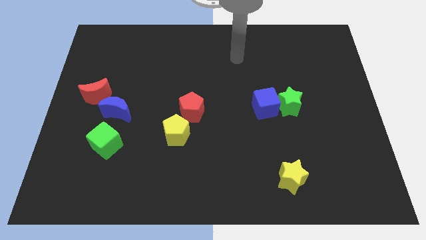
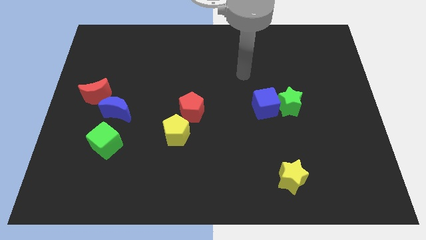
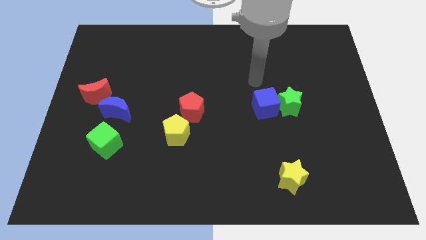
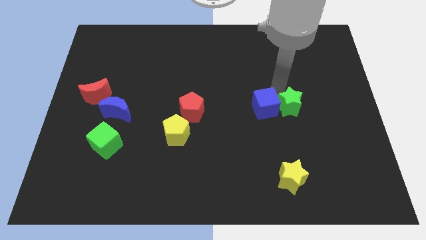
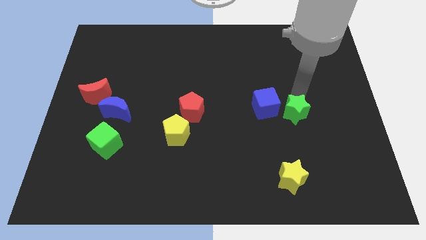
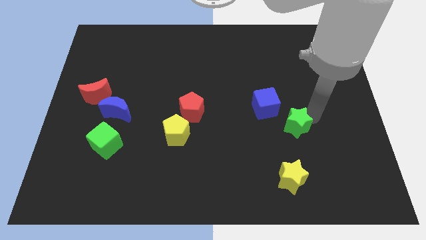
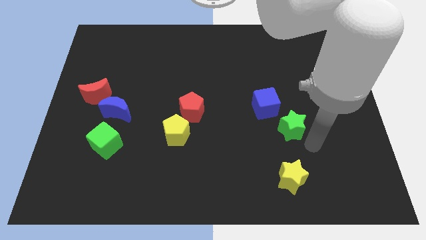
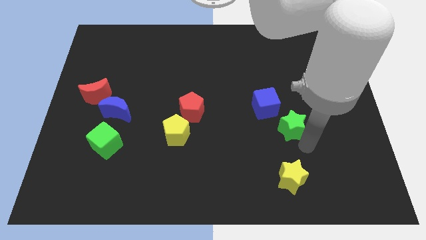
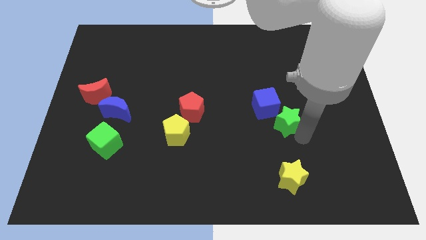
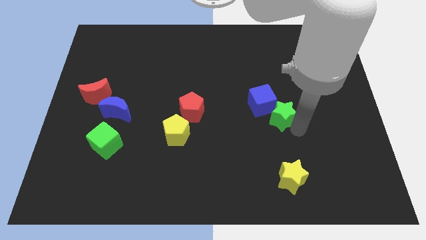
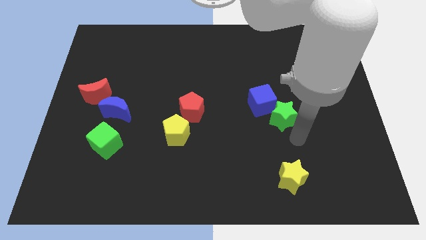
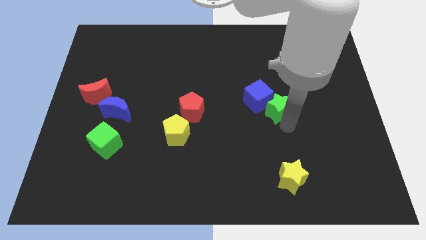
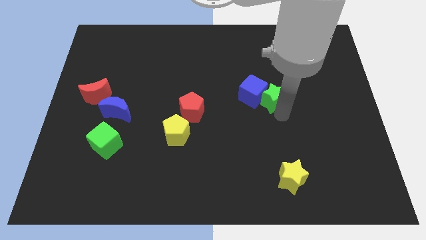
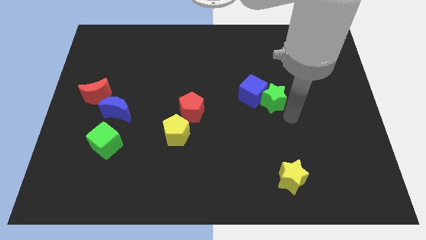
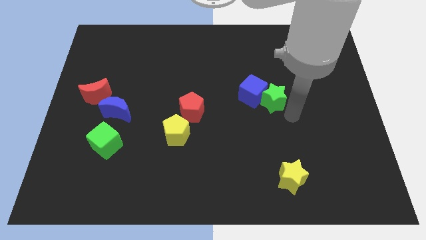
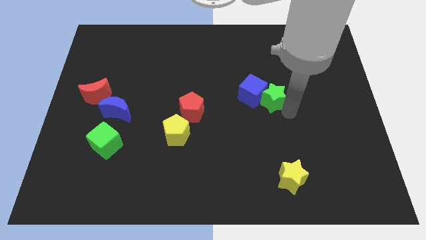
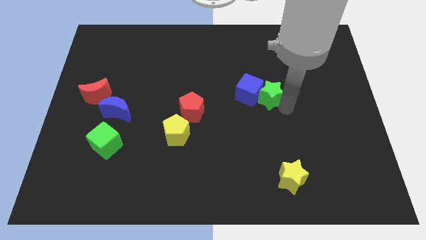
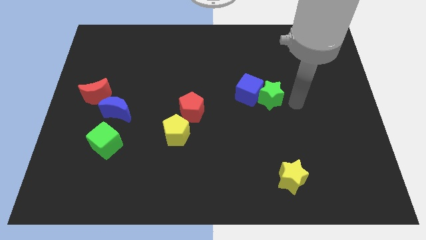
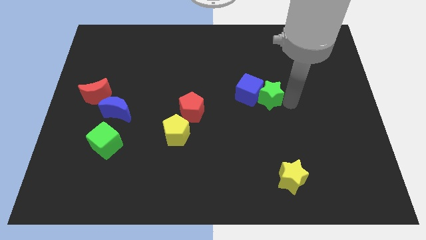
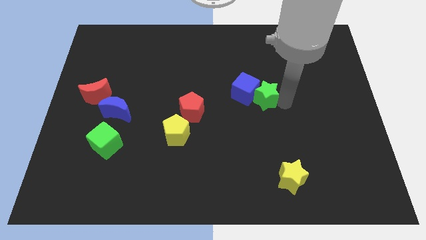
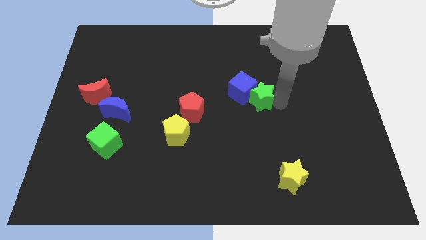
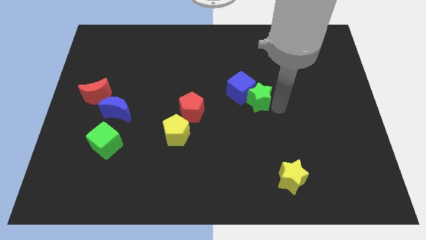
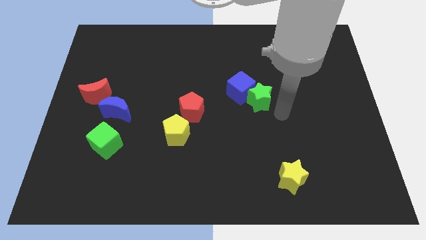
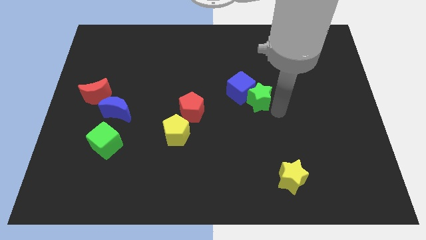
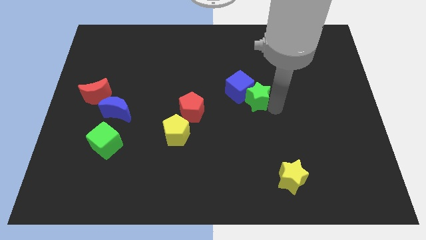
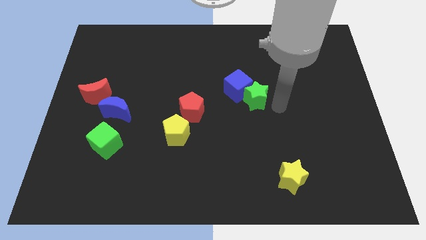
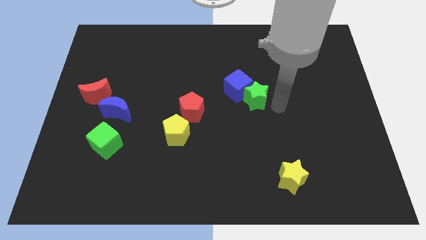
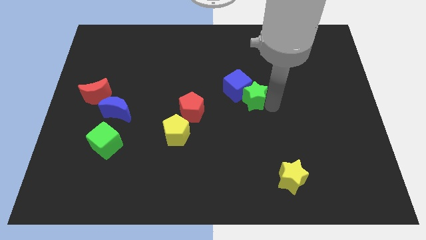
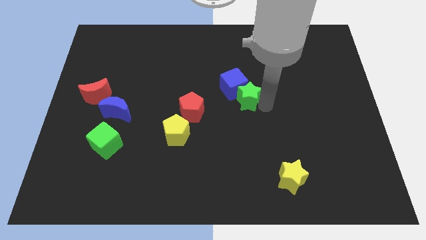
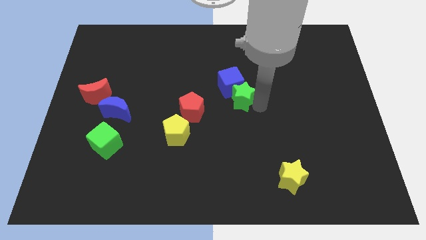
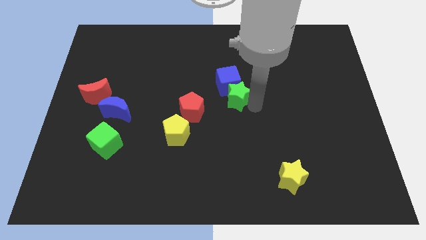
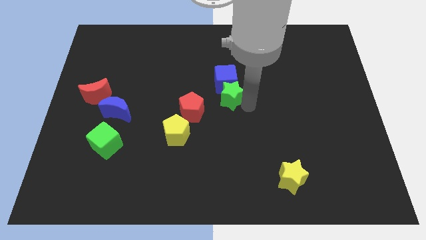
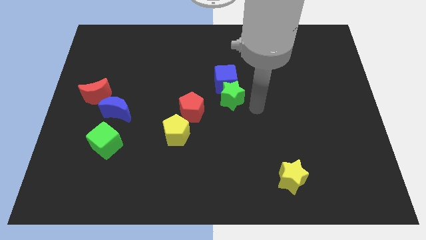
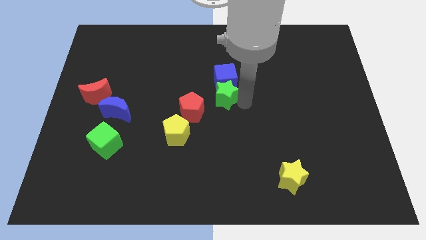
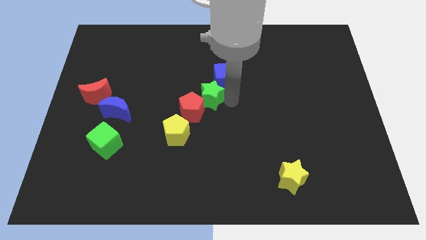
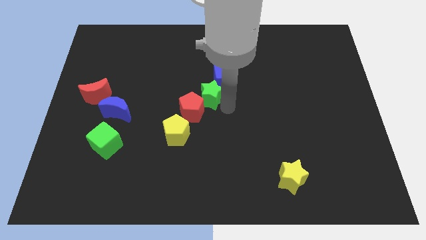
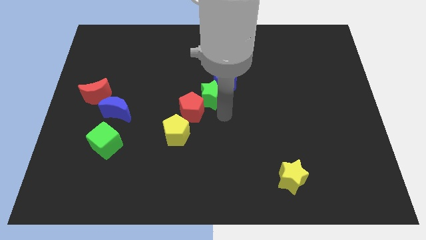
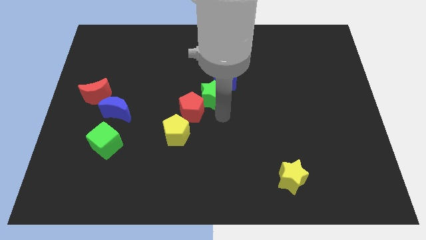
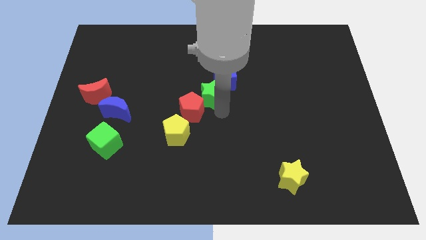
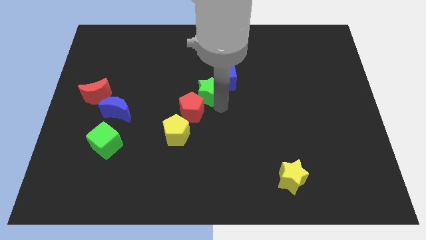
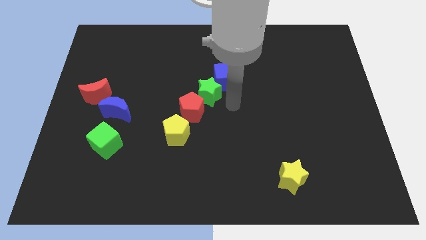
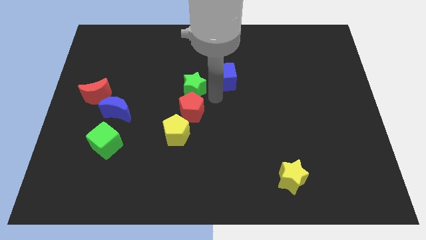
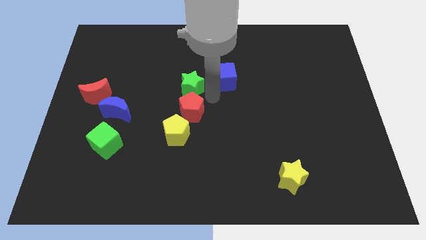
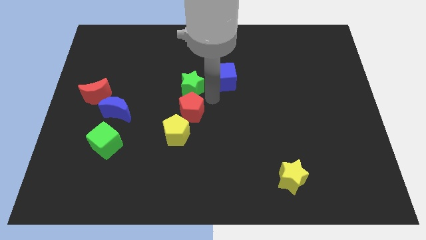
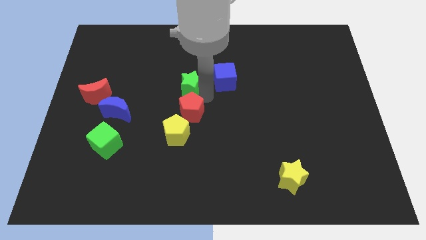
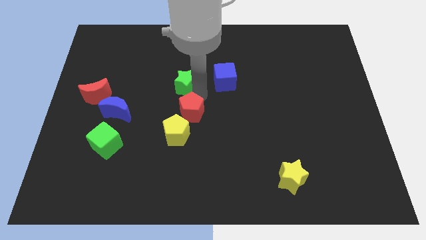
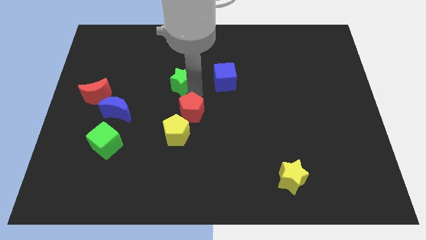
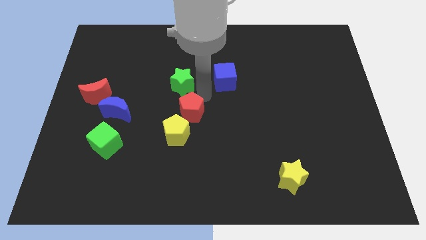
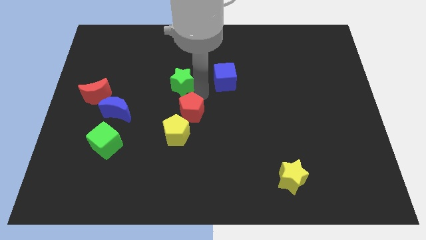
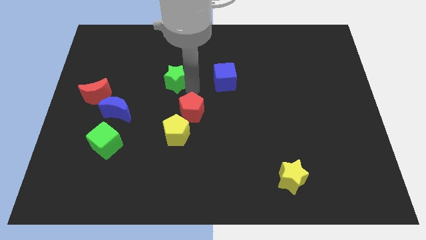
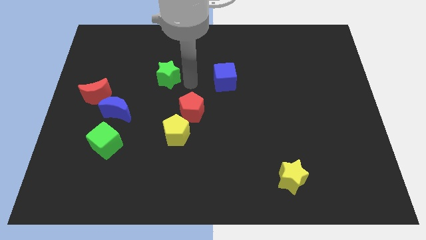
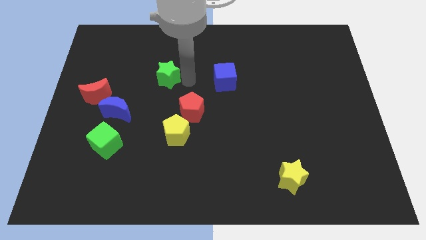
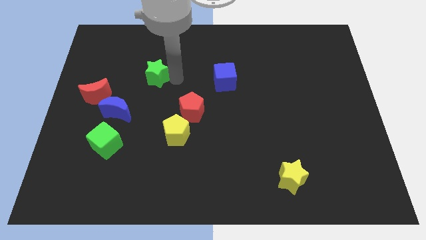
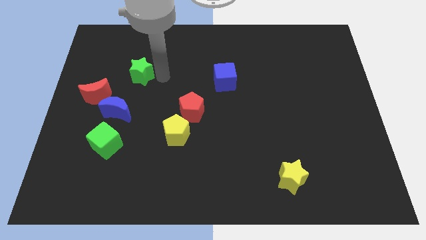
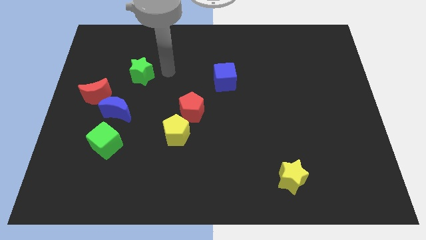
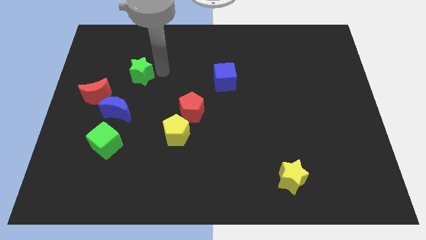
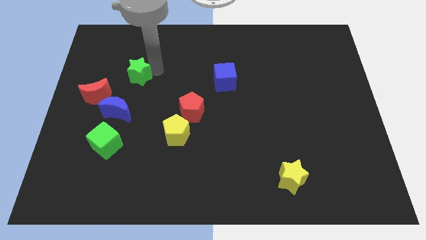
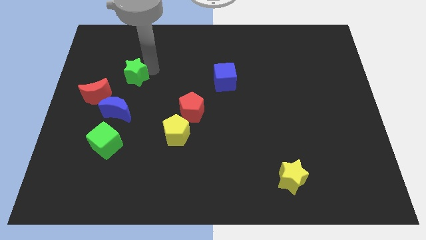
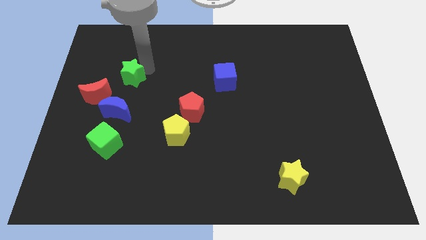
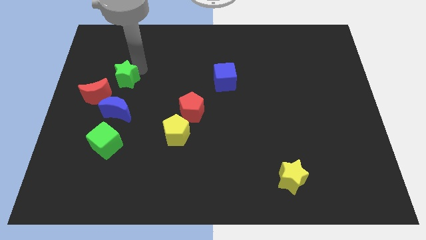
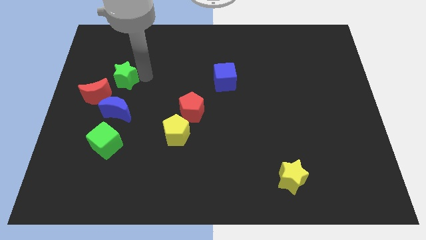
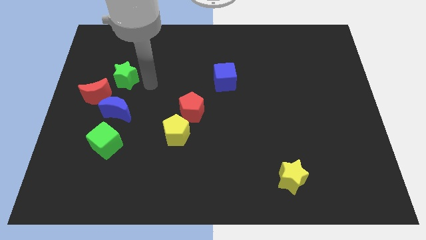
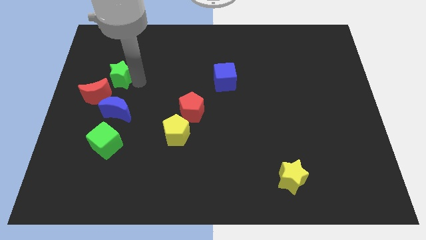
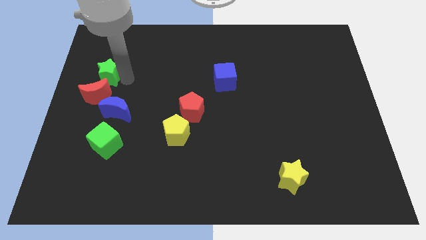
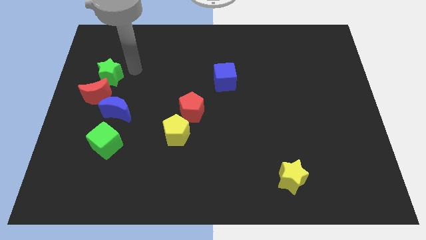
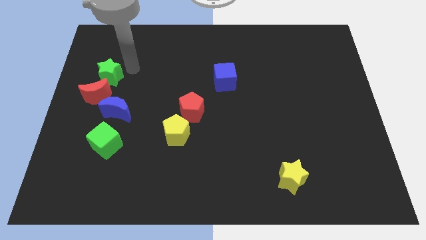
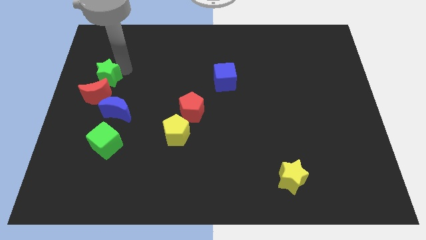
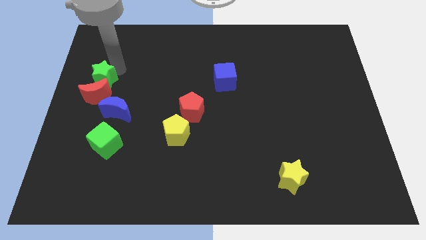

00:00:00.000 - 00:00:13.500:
slide the green star to the left side
